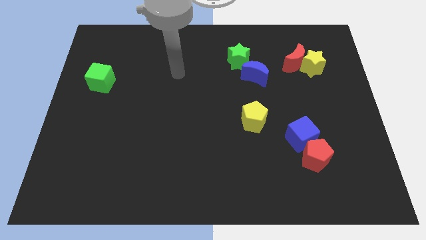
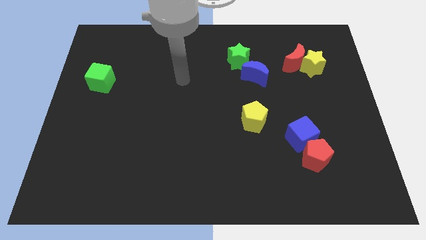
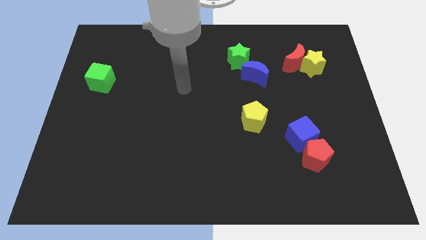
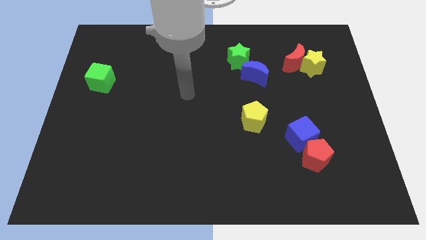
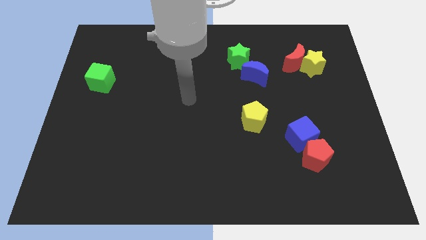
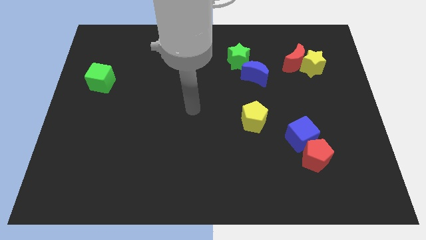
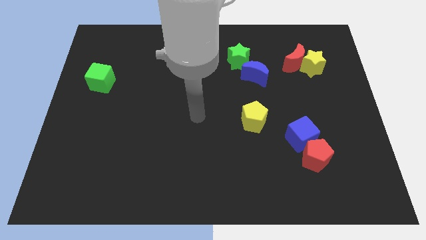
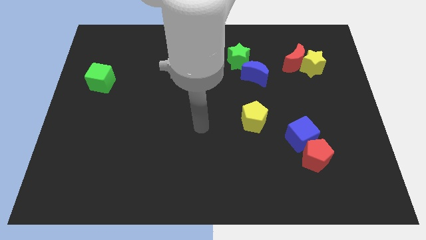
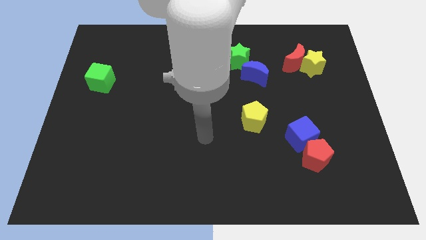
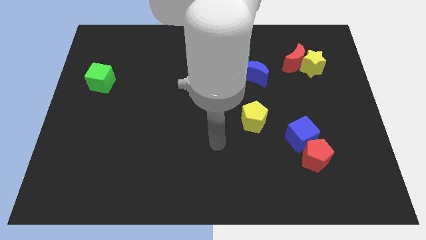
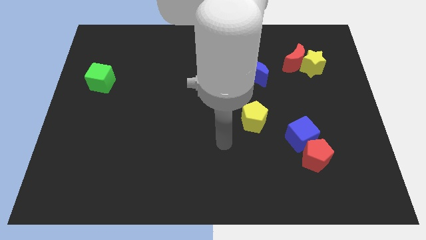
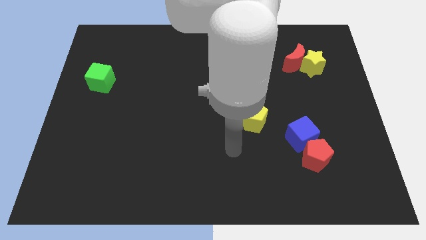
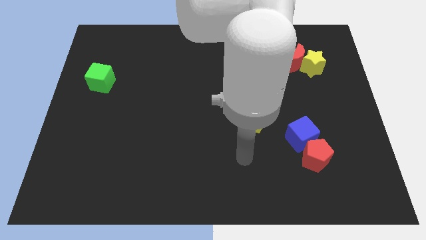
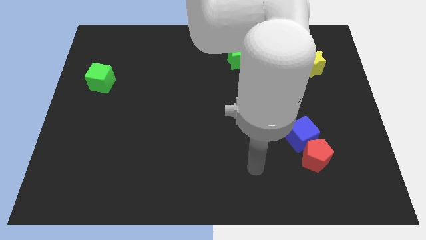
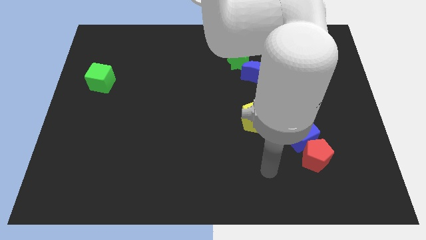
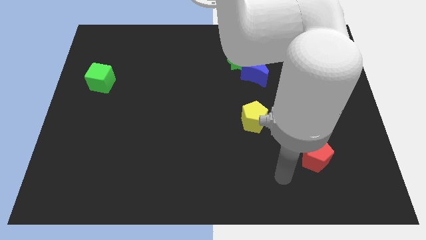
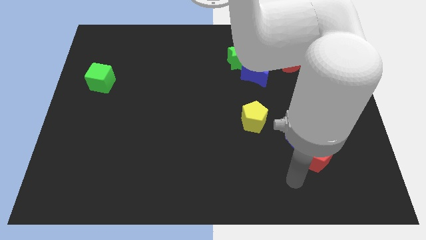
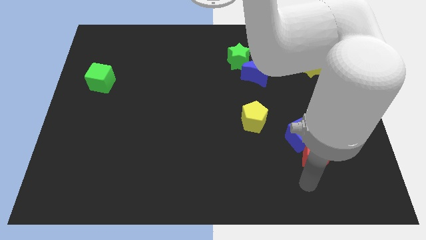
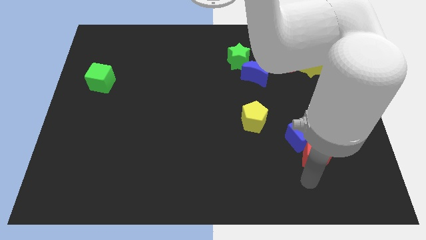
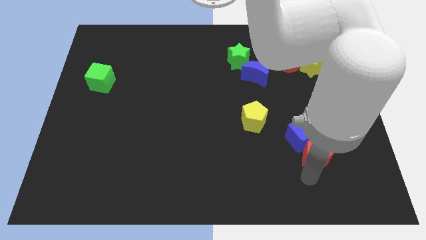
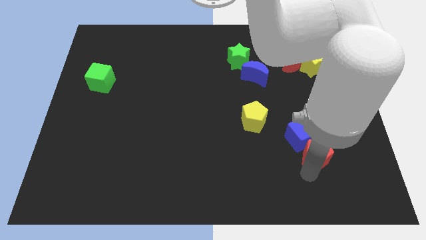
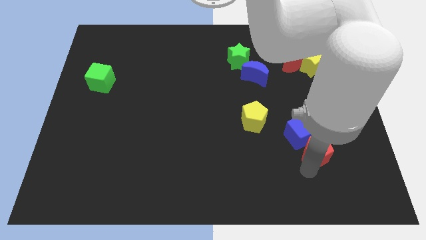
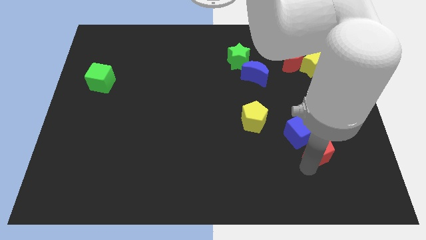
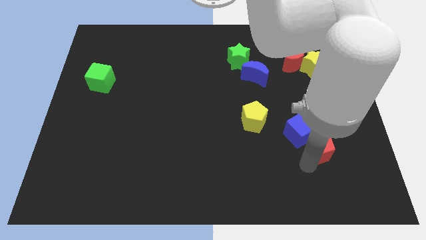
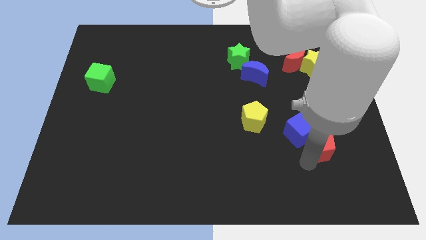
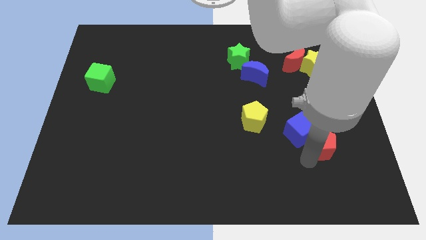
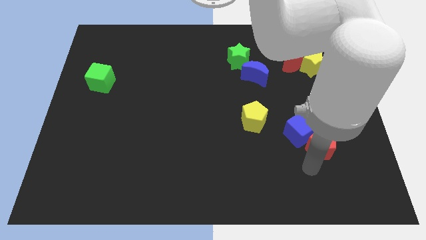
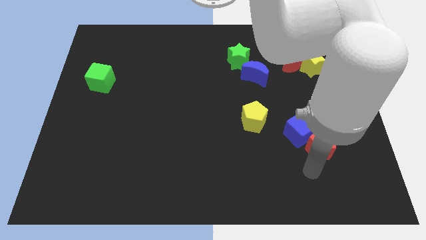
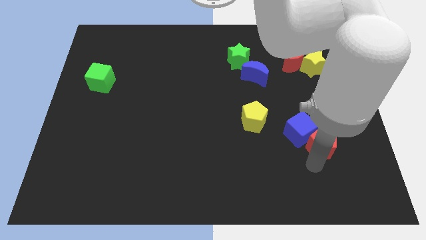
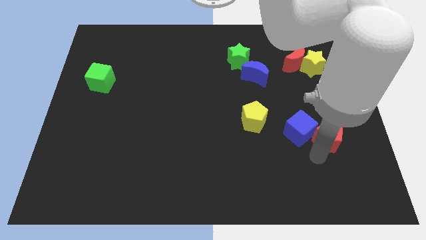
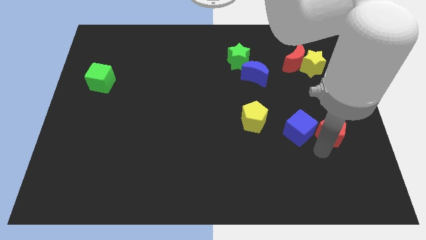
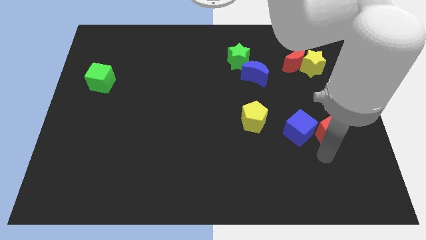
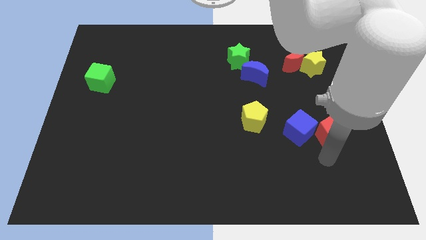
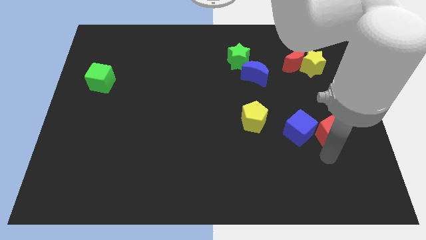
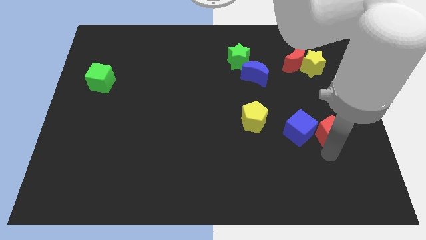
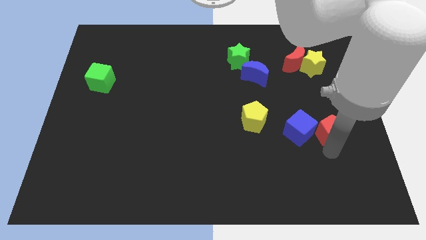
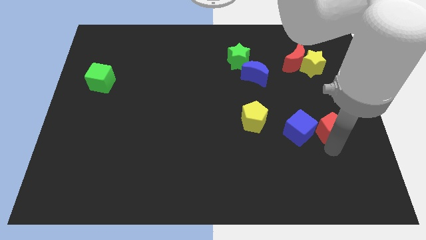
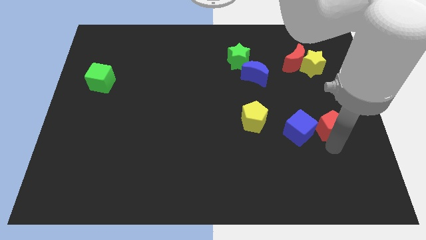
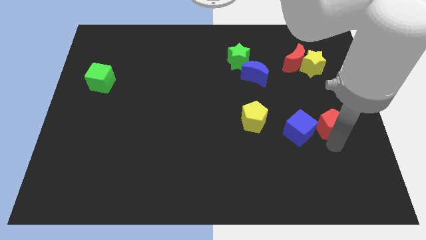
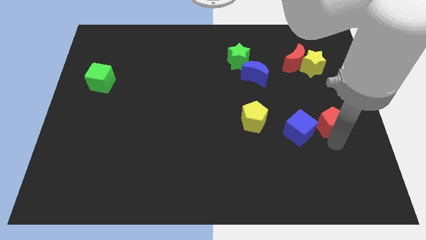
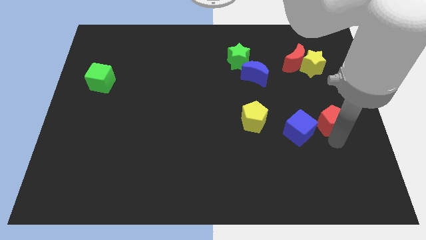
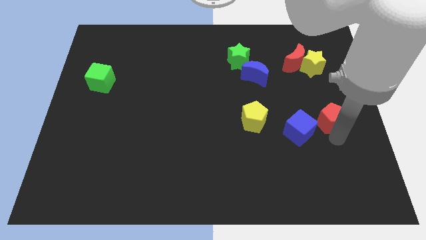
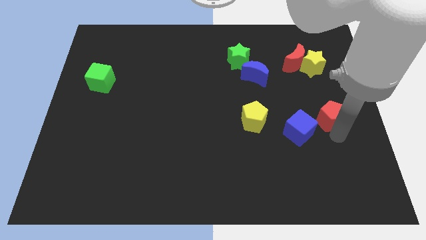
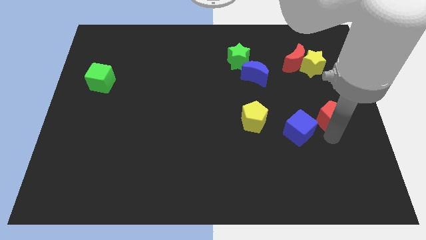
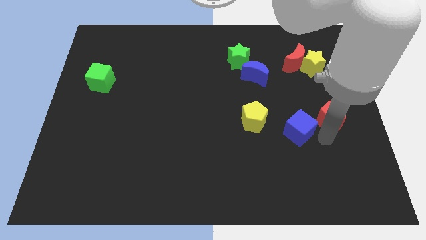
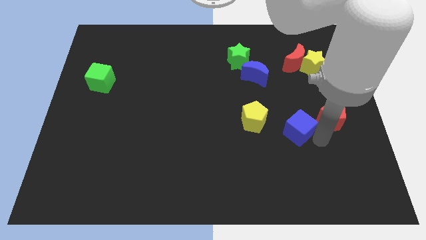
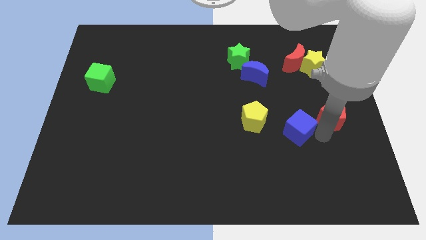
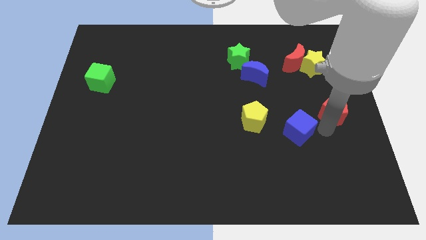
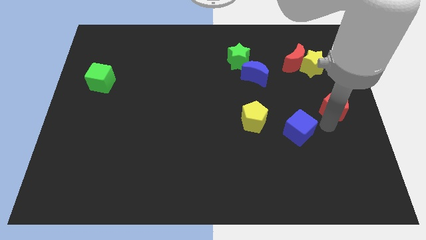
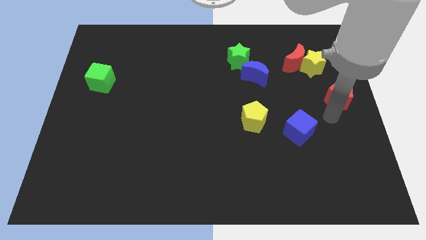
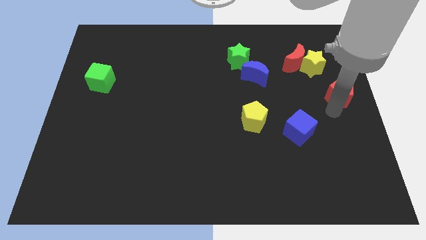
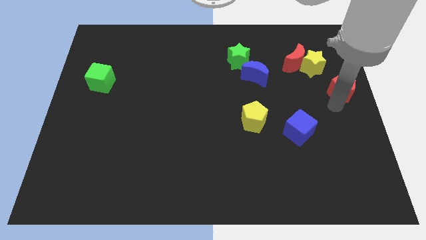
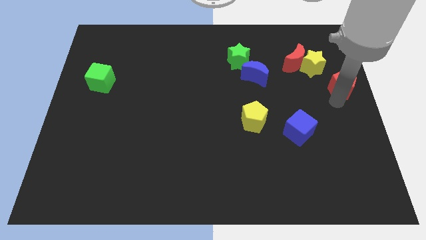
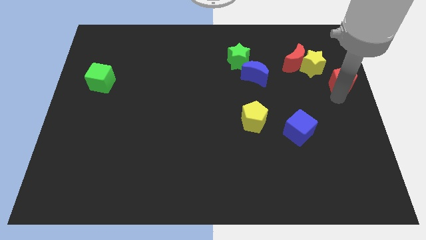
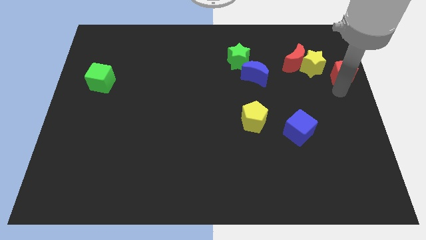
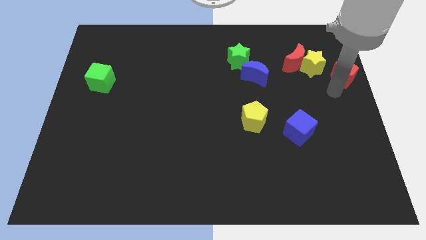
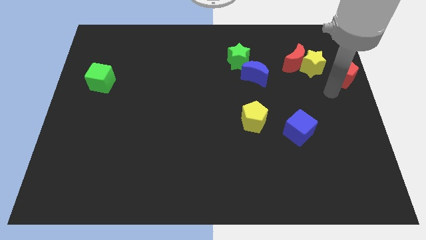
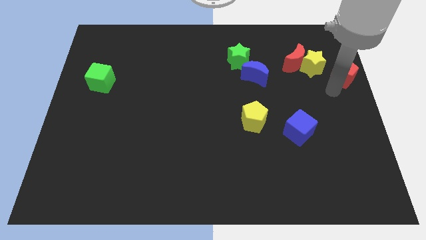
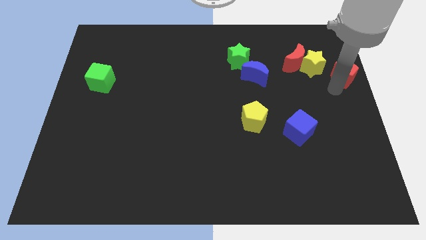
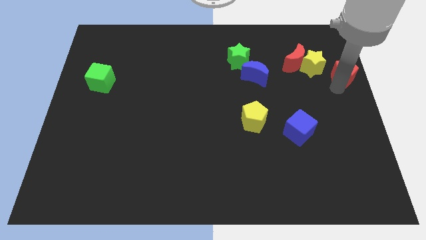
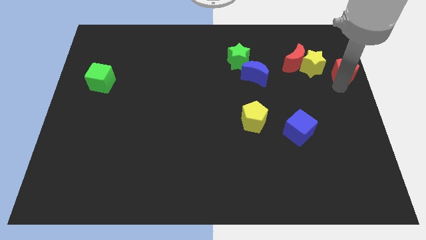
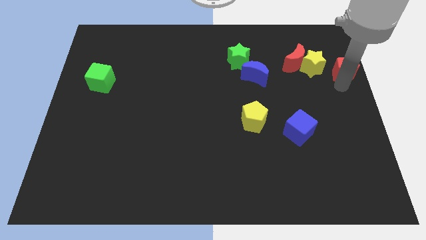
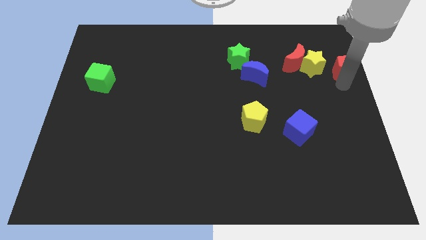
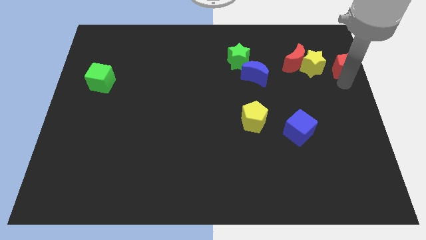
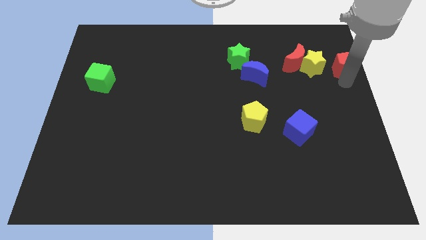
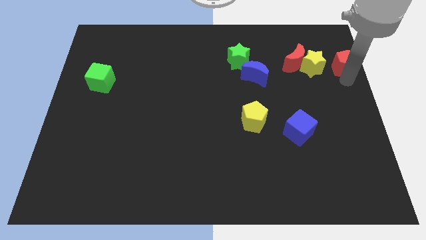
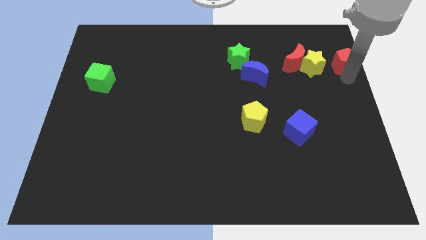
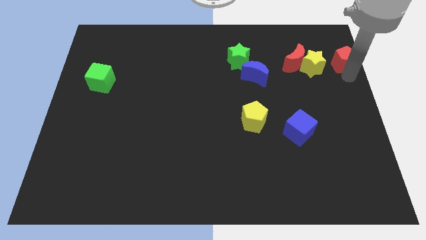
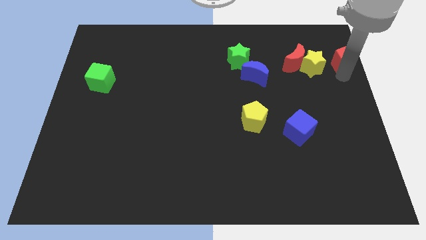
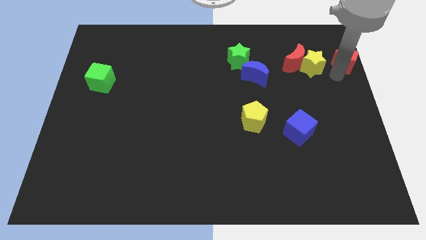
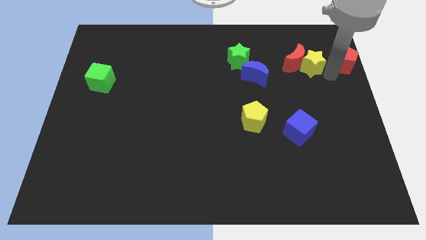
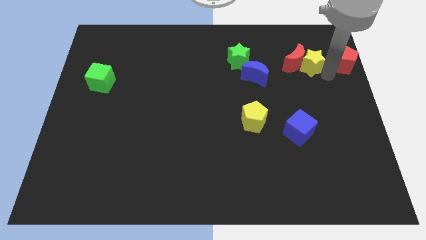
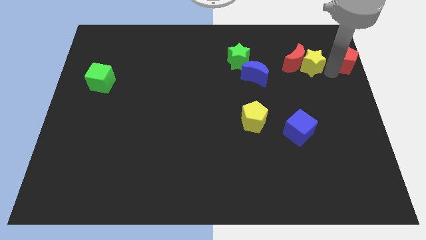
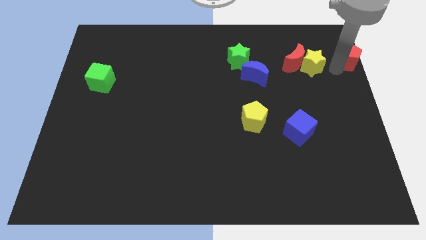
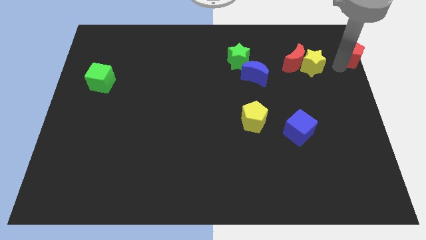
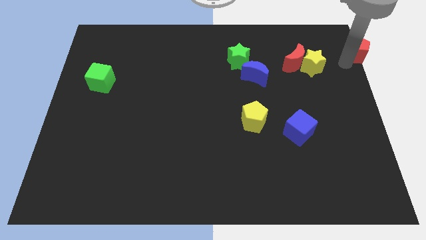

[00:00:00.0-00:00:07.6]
move the red pentagon to the upper right corner
